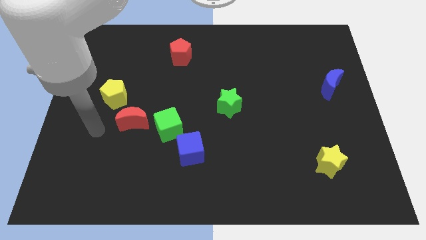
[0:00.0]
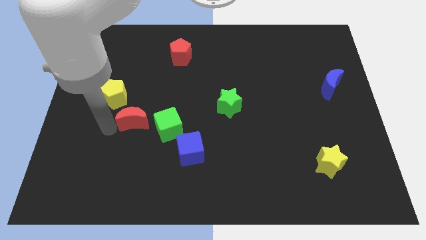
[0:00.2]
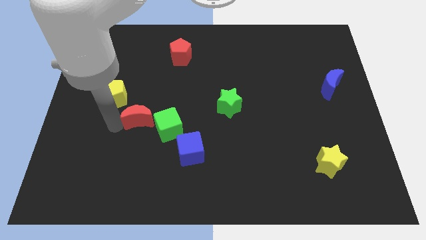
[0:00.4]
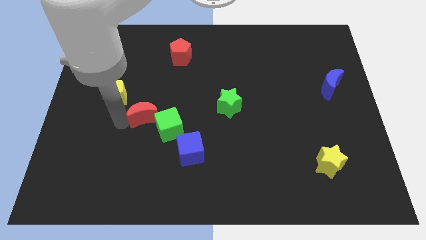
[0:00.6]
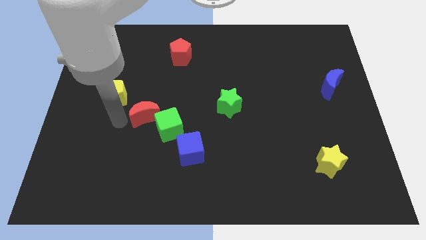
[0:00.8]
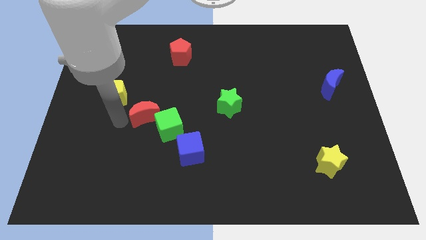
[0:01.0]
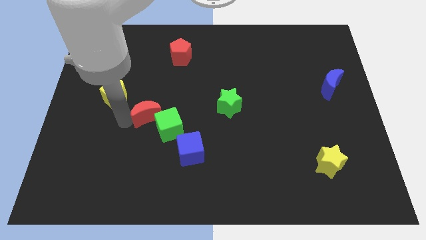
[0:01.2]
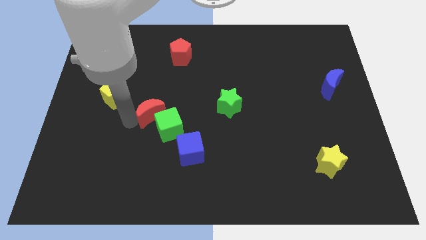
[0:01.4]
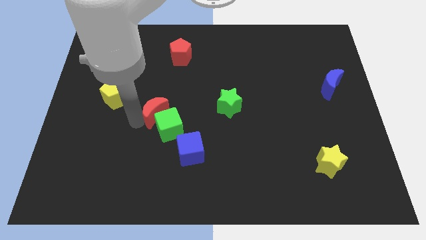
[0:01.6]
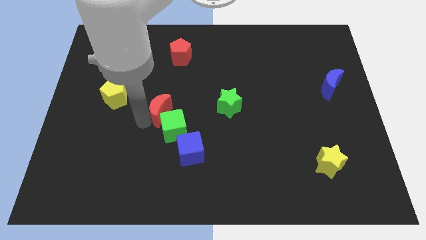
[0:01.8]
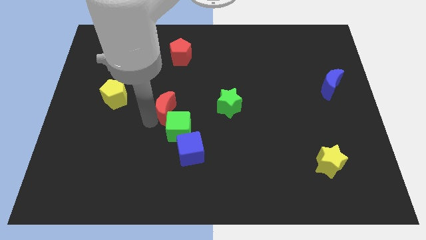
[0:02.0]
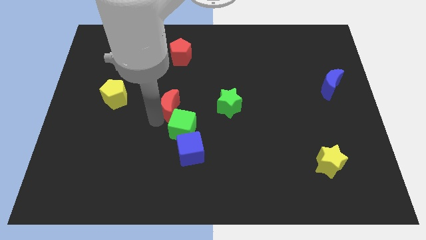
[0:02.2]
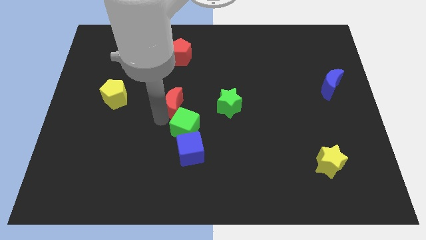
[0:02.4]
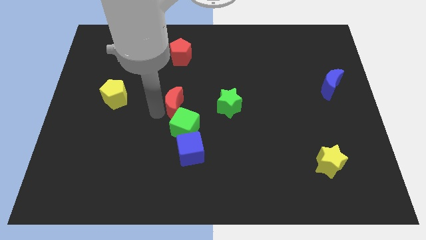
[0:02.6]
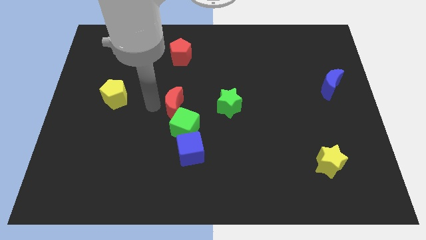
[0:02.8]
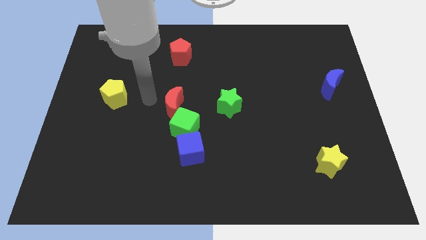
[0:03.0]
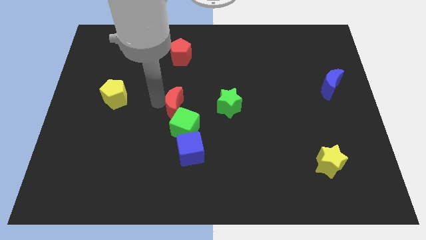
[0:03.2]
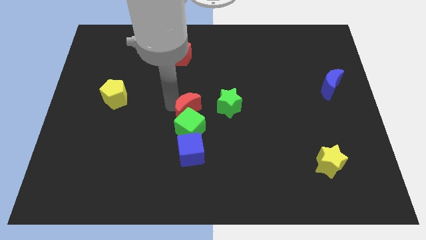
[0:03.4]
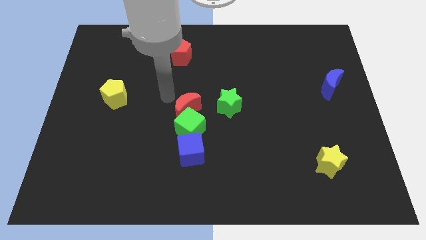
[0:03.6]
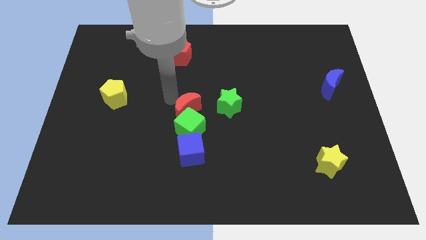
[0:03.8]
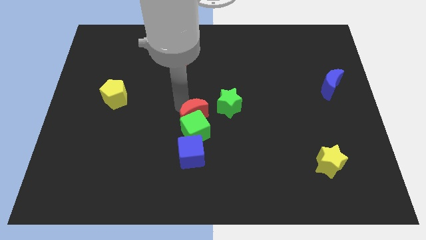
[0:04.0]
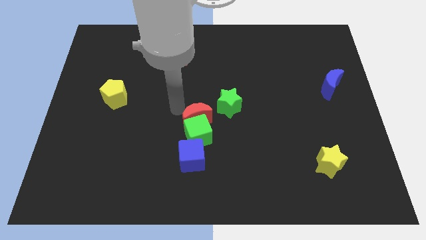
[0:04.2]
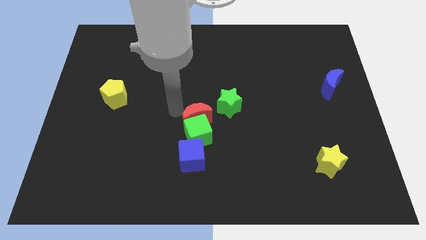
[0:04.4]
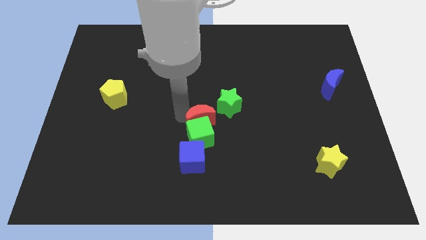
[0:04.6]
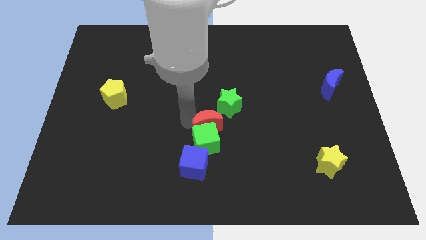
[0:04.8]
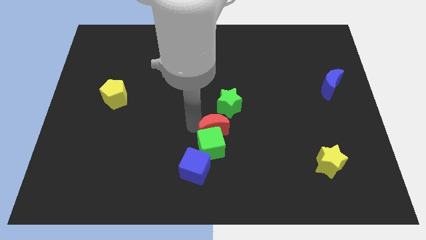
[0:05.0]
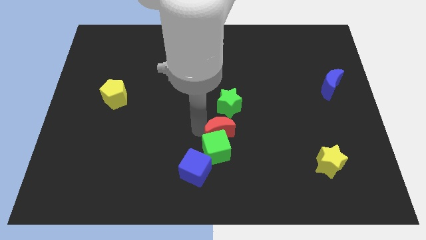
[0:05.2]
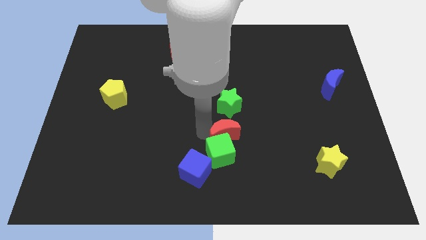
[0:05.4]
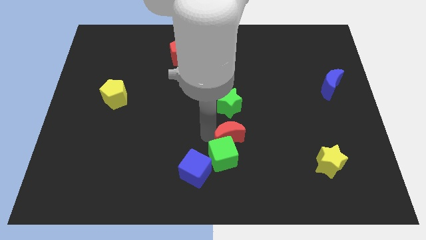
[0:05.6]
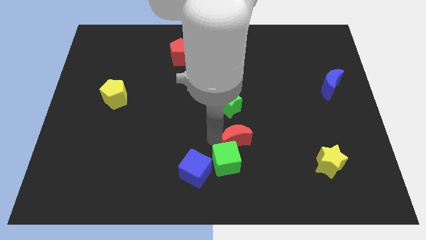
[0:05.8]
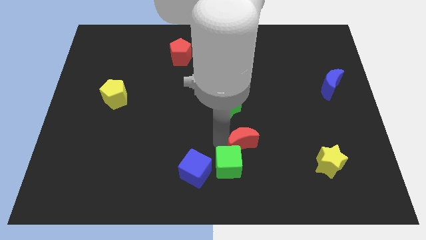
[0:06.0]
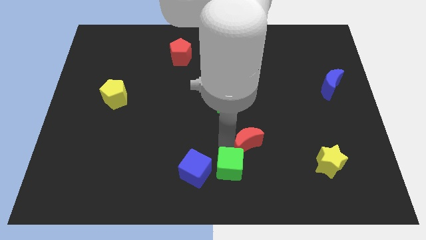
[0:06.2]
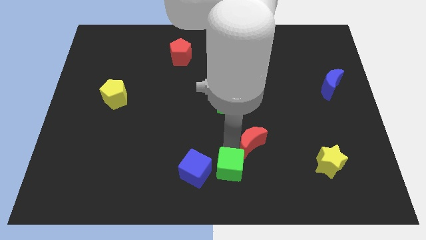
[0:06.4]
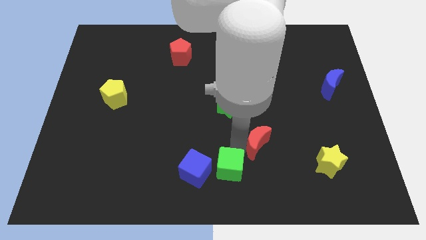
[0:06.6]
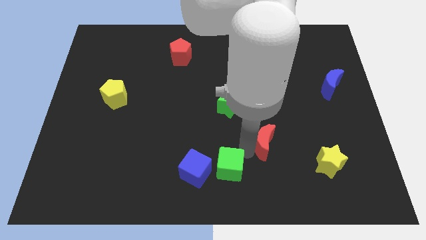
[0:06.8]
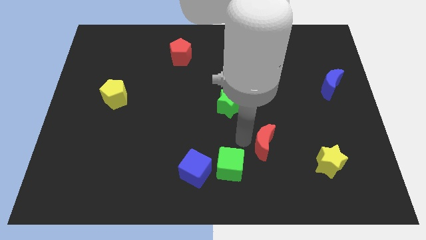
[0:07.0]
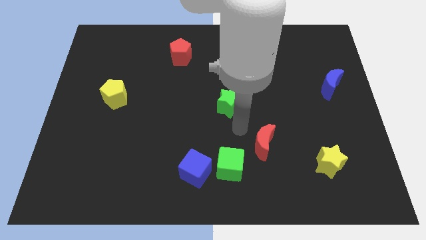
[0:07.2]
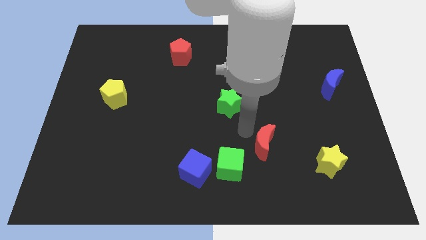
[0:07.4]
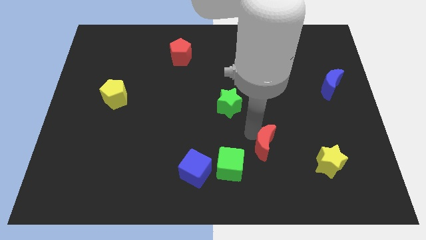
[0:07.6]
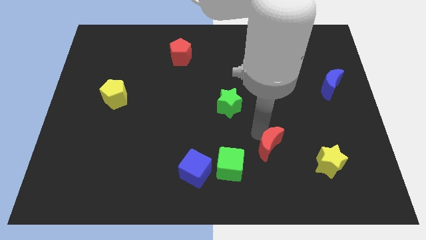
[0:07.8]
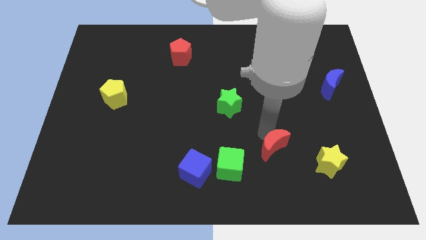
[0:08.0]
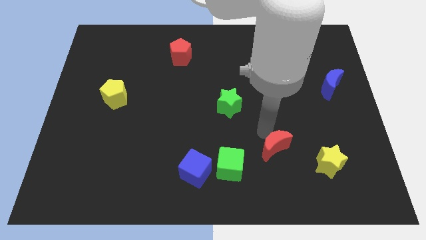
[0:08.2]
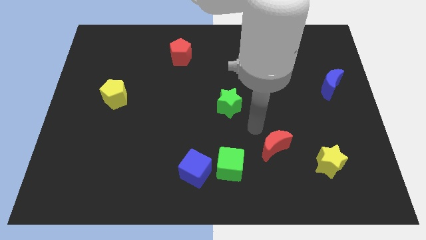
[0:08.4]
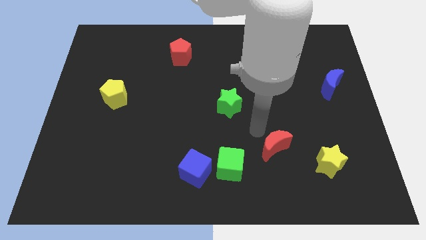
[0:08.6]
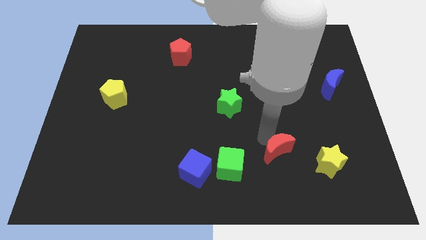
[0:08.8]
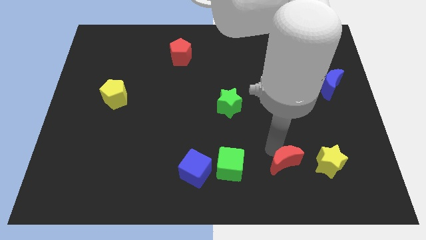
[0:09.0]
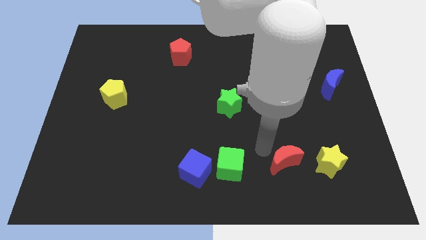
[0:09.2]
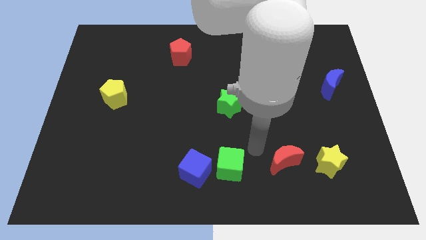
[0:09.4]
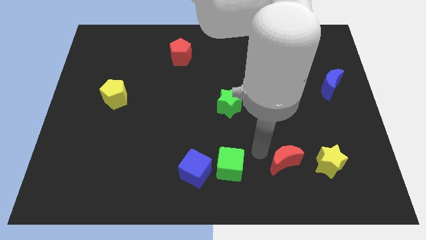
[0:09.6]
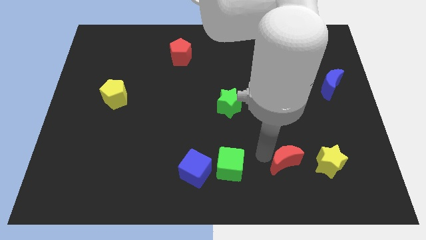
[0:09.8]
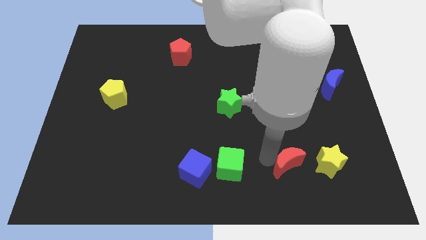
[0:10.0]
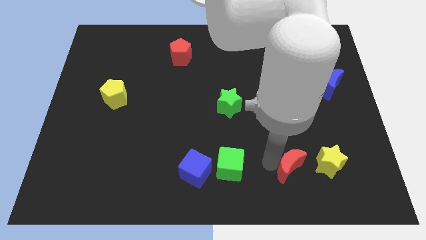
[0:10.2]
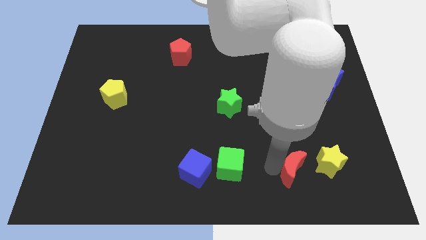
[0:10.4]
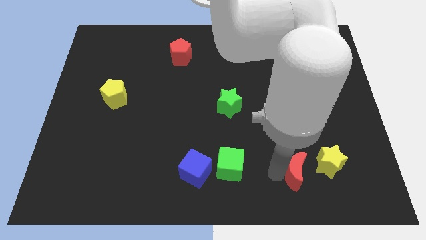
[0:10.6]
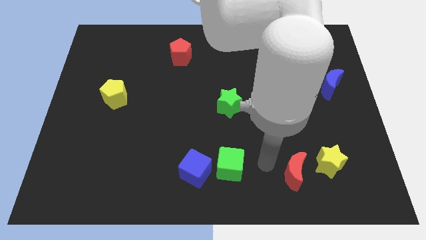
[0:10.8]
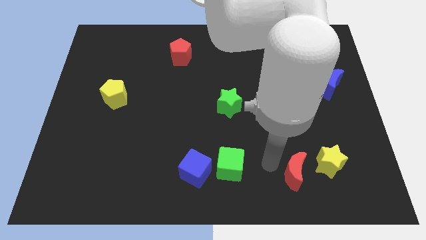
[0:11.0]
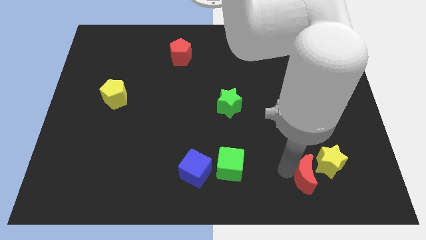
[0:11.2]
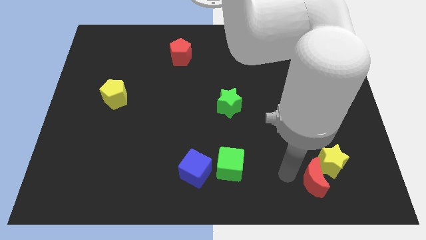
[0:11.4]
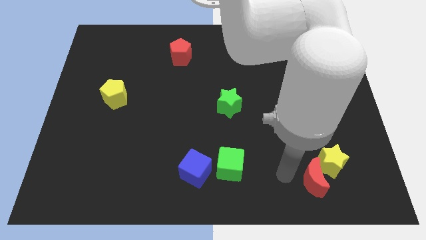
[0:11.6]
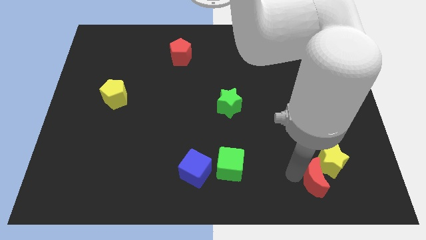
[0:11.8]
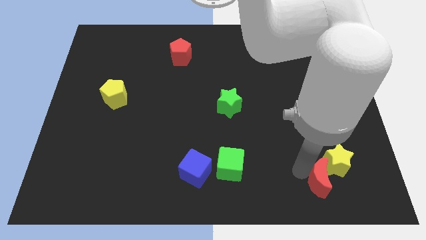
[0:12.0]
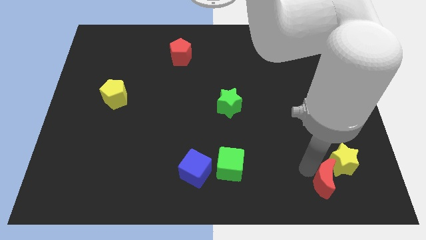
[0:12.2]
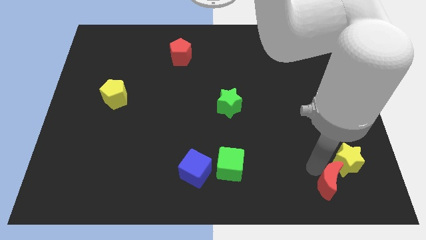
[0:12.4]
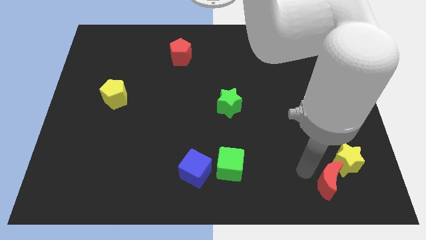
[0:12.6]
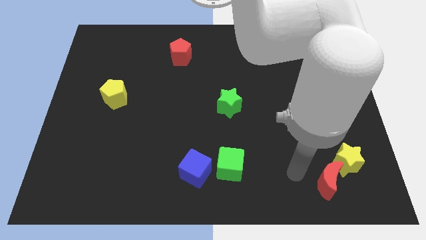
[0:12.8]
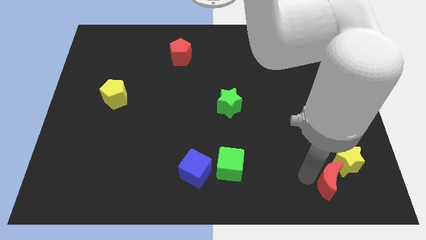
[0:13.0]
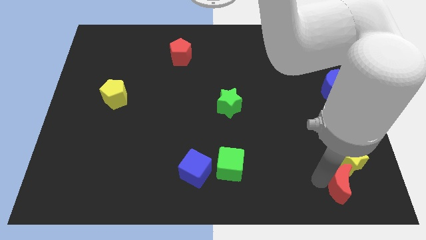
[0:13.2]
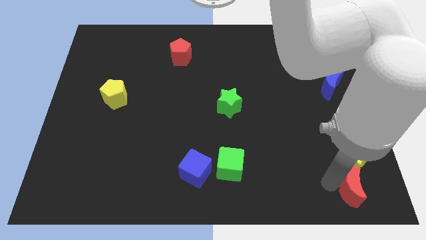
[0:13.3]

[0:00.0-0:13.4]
push the red moon to the bottom right
